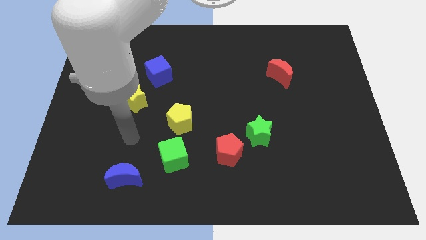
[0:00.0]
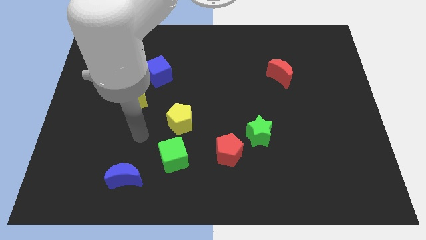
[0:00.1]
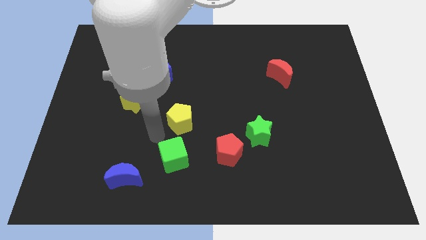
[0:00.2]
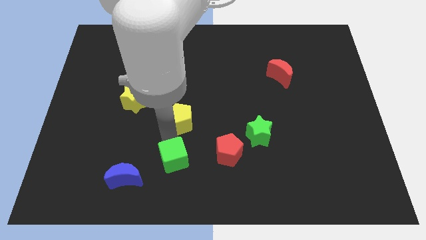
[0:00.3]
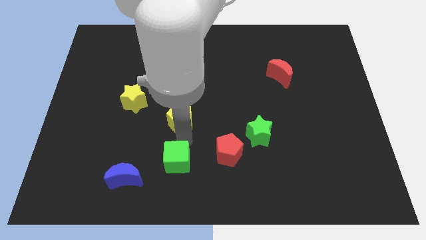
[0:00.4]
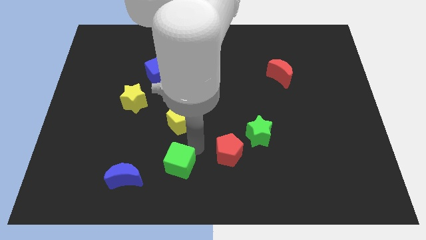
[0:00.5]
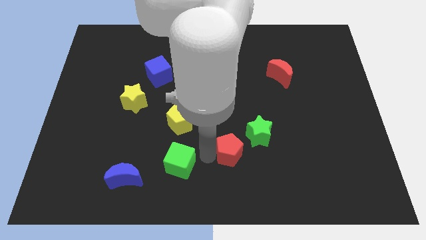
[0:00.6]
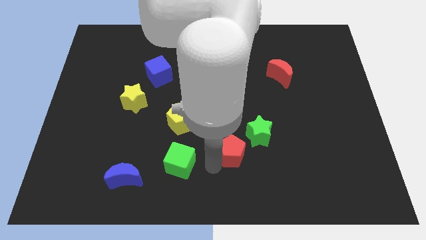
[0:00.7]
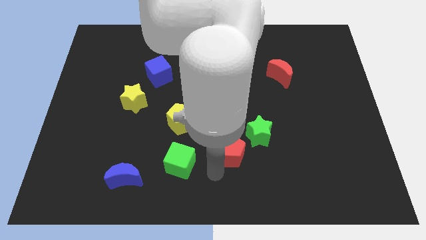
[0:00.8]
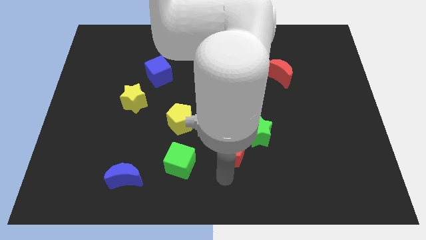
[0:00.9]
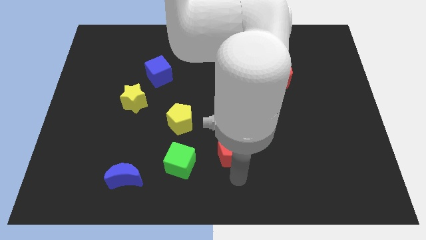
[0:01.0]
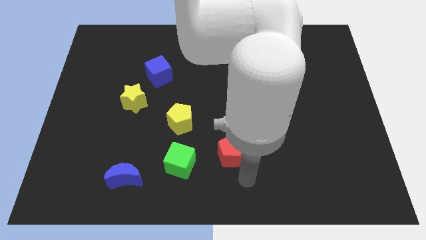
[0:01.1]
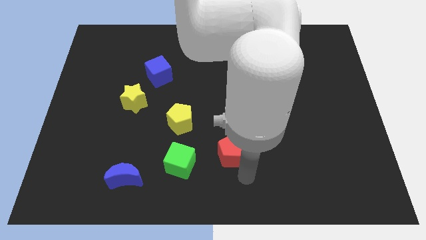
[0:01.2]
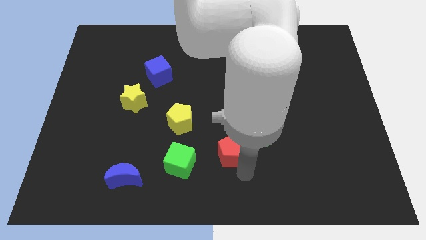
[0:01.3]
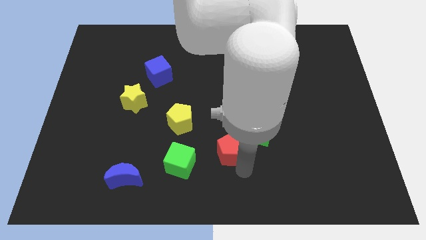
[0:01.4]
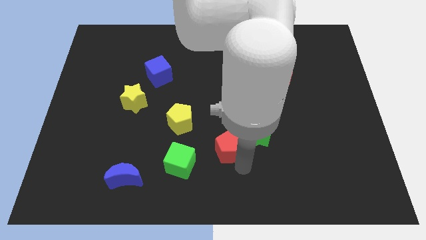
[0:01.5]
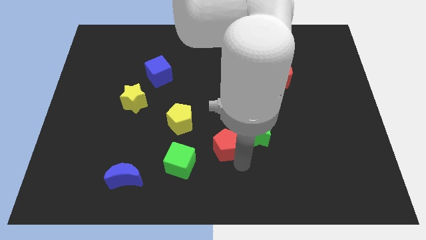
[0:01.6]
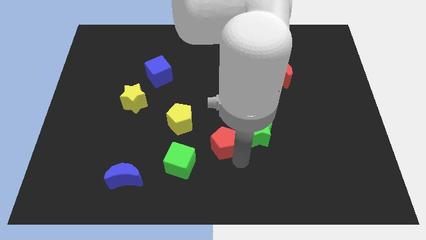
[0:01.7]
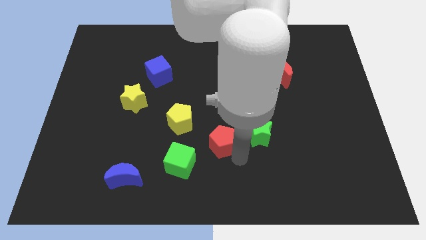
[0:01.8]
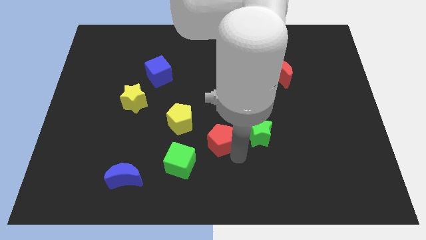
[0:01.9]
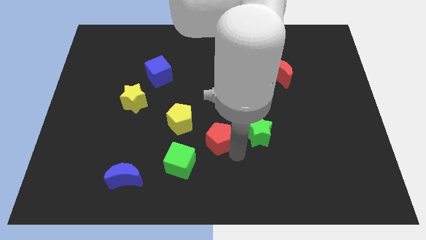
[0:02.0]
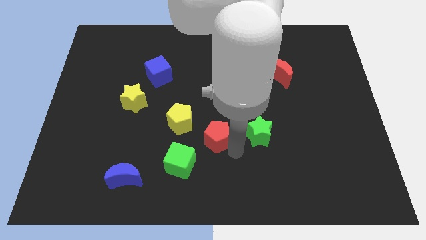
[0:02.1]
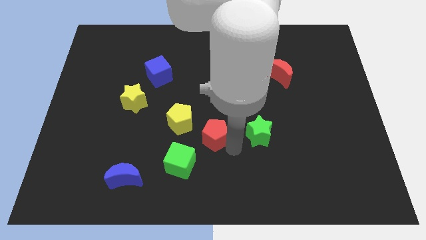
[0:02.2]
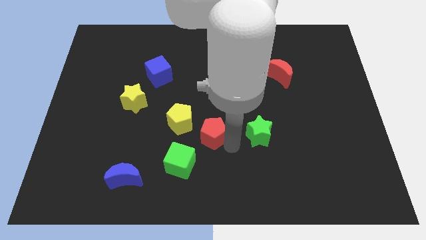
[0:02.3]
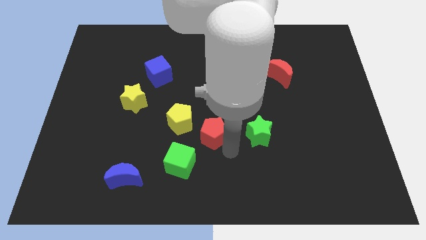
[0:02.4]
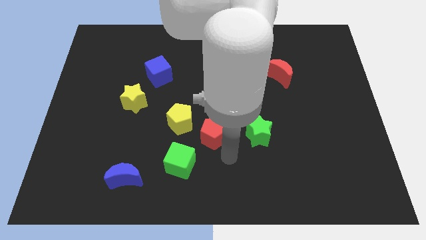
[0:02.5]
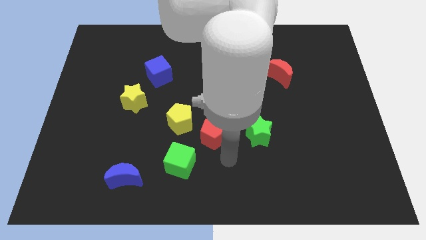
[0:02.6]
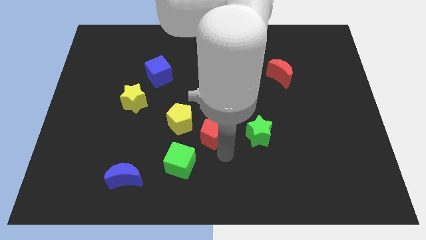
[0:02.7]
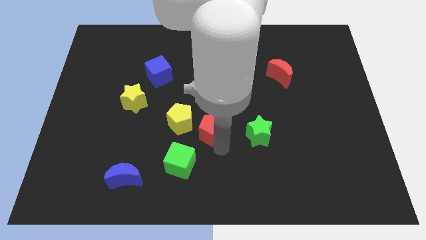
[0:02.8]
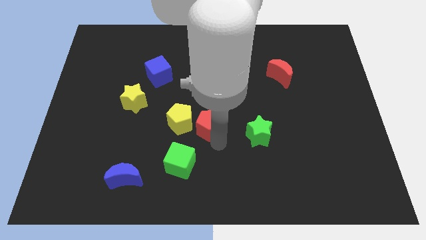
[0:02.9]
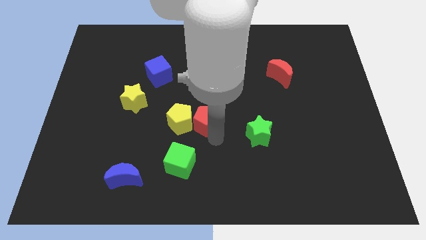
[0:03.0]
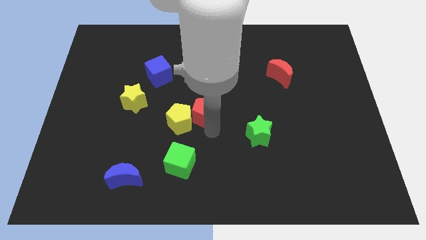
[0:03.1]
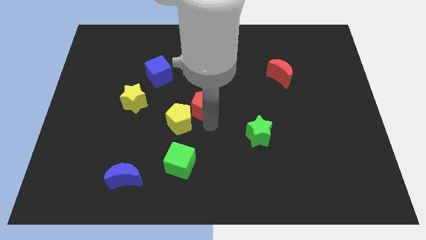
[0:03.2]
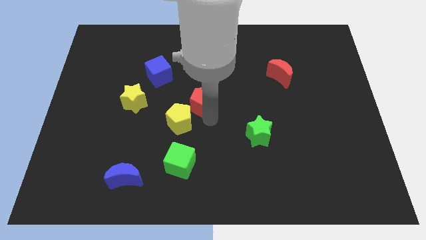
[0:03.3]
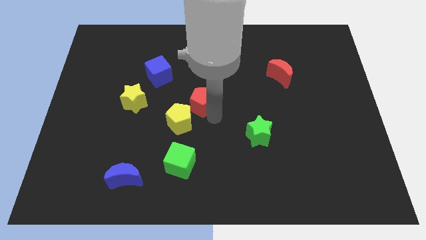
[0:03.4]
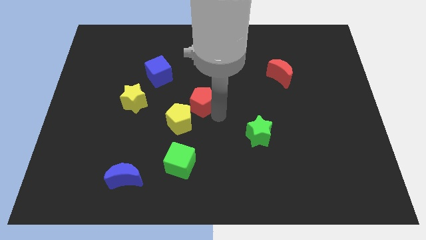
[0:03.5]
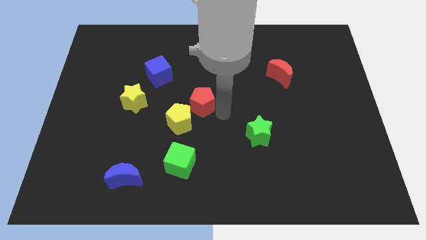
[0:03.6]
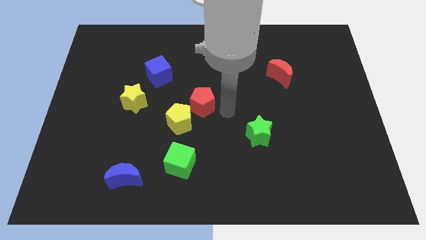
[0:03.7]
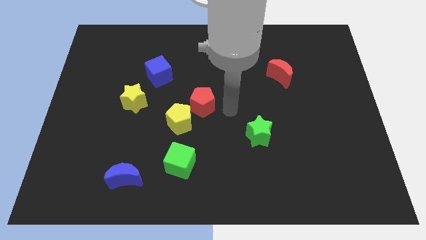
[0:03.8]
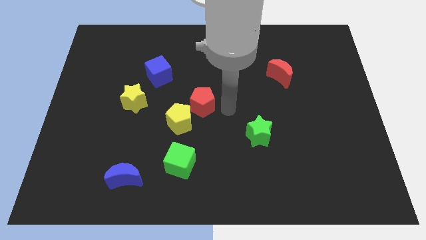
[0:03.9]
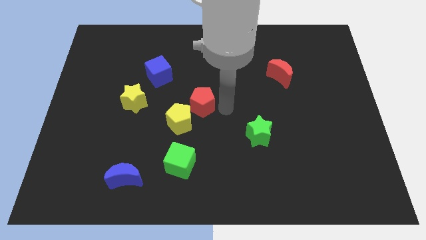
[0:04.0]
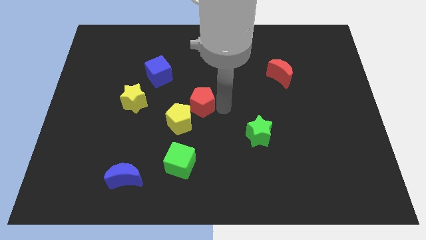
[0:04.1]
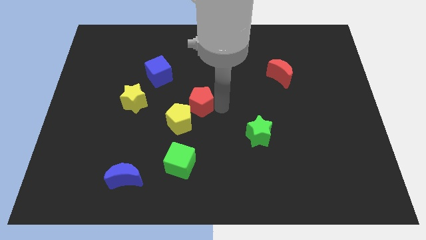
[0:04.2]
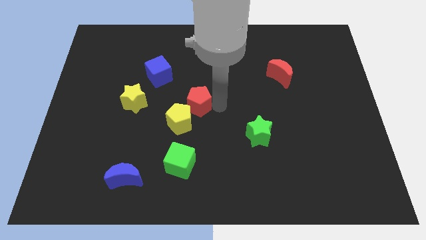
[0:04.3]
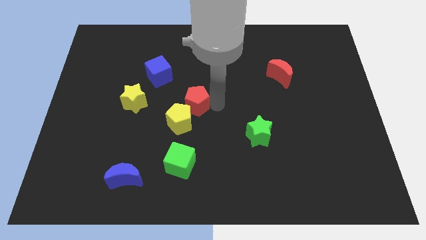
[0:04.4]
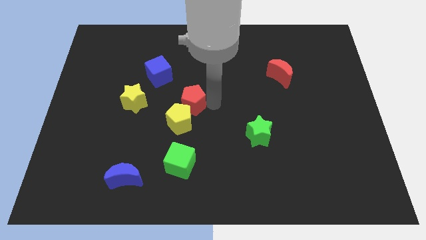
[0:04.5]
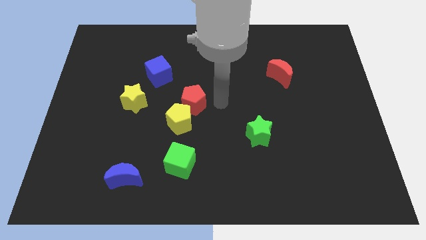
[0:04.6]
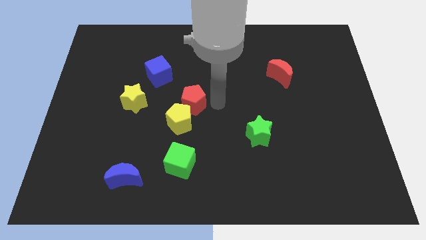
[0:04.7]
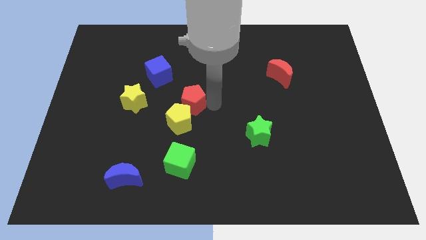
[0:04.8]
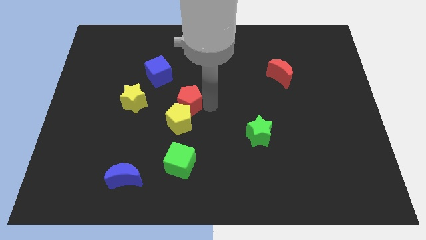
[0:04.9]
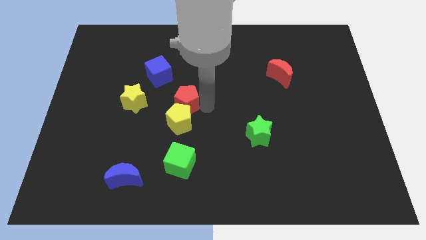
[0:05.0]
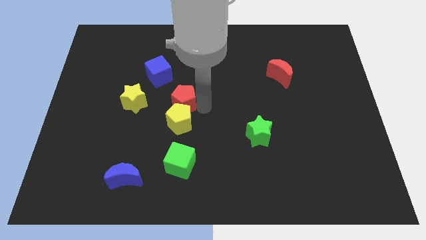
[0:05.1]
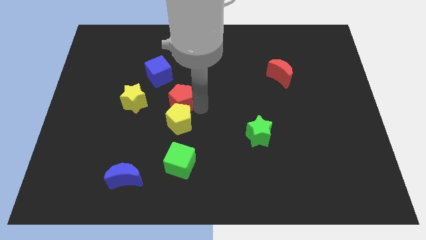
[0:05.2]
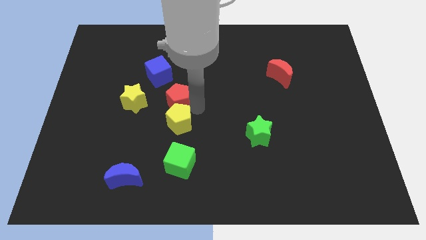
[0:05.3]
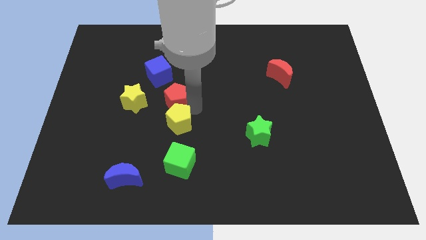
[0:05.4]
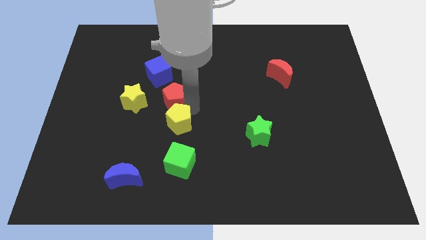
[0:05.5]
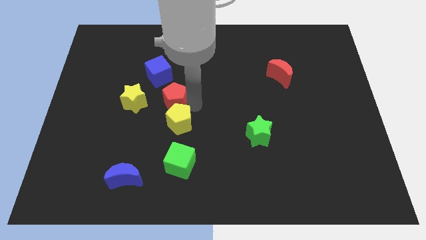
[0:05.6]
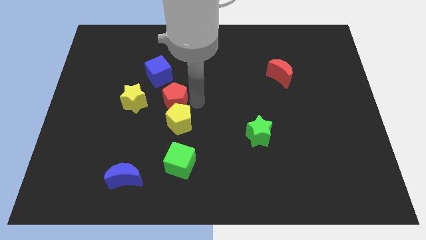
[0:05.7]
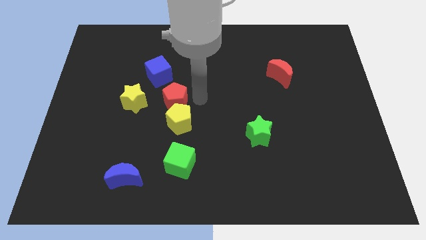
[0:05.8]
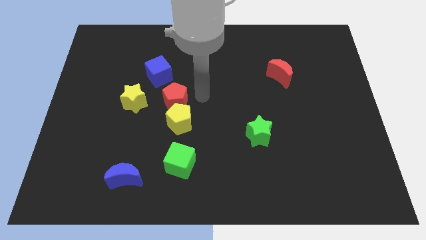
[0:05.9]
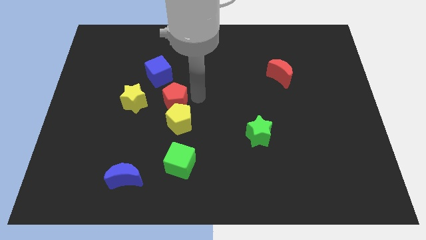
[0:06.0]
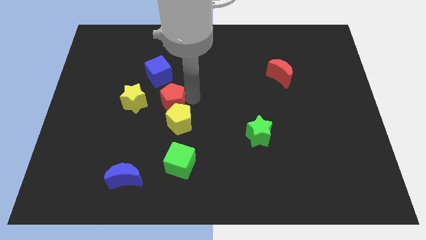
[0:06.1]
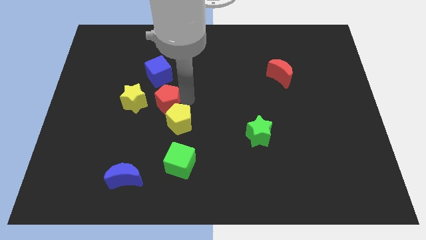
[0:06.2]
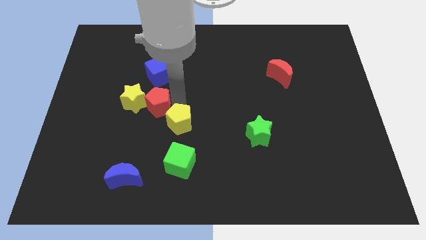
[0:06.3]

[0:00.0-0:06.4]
push the red pentagon close to the yellow star
